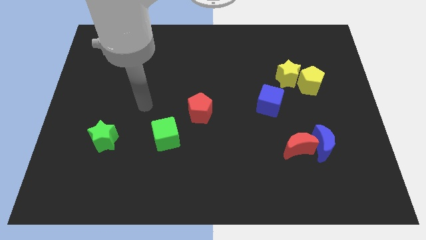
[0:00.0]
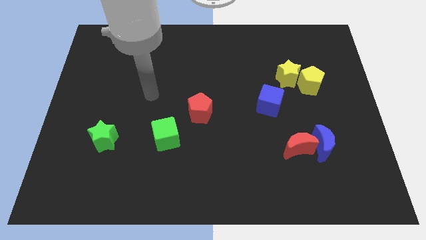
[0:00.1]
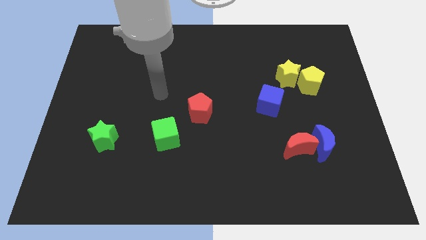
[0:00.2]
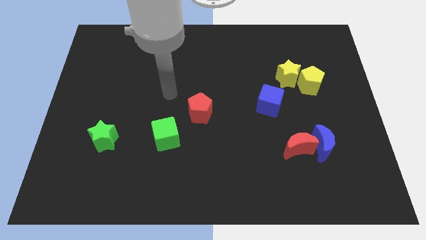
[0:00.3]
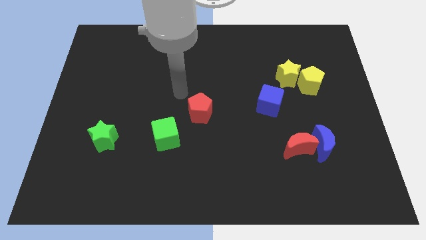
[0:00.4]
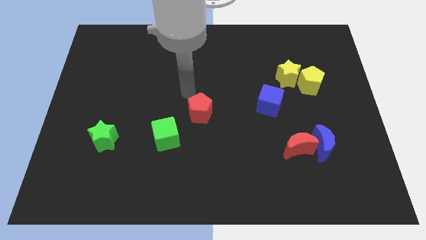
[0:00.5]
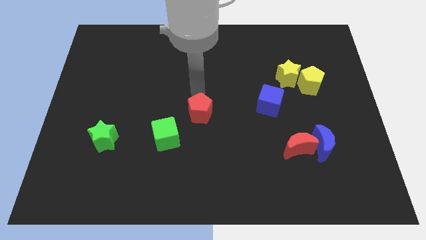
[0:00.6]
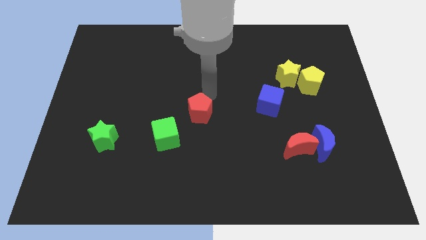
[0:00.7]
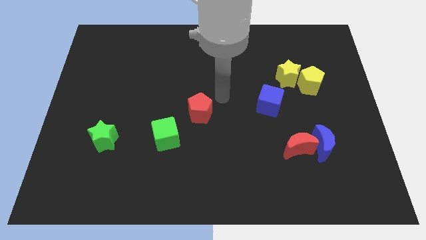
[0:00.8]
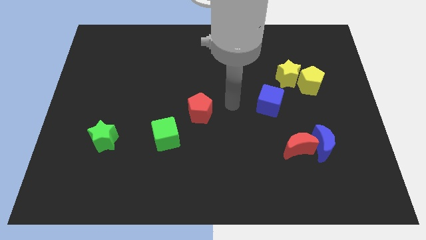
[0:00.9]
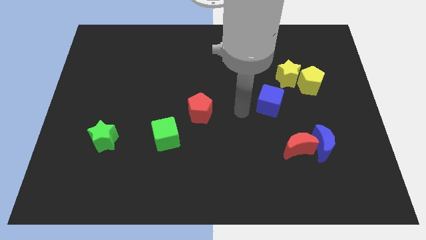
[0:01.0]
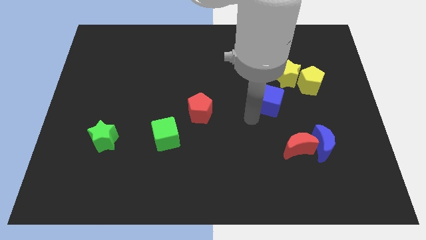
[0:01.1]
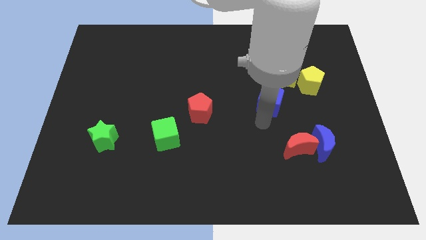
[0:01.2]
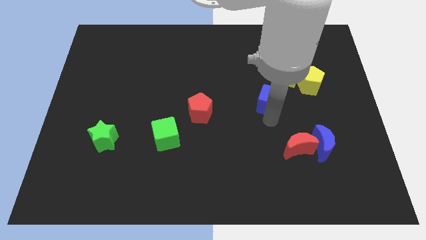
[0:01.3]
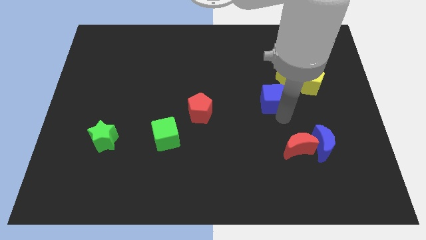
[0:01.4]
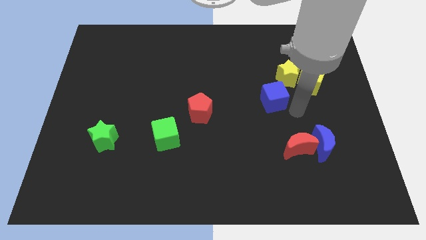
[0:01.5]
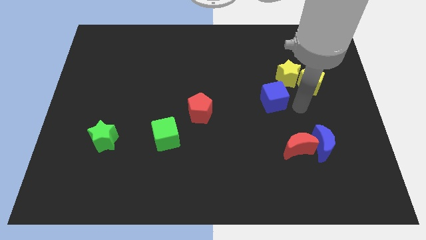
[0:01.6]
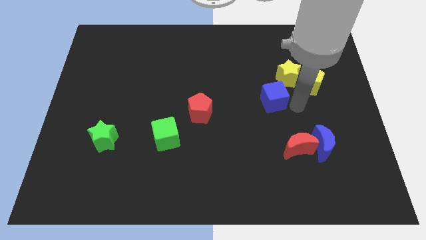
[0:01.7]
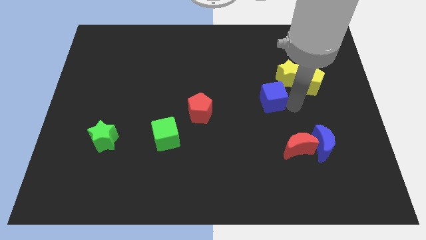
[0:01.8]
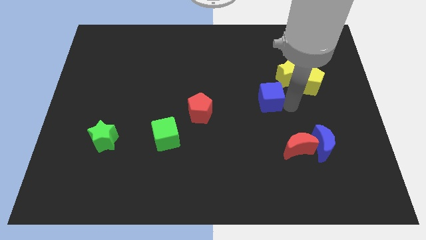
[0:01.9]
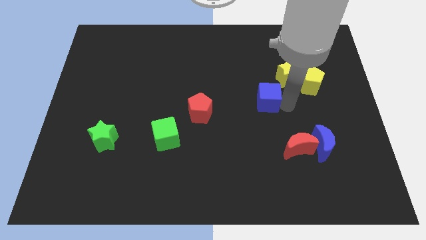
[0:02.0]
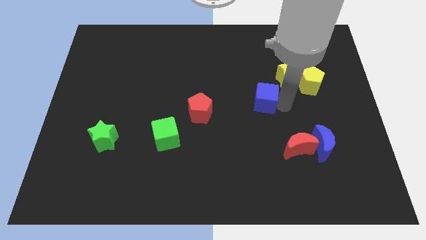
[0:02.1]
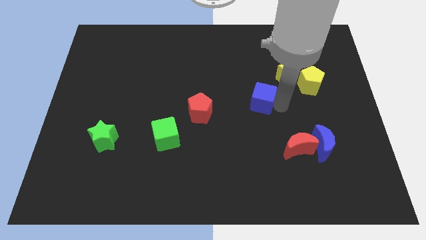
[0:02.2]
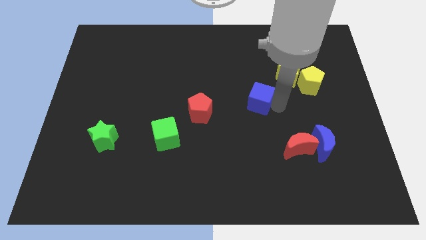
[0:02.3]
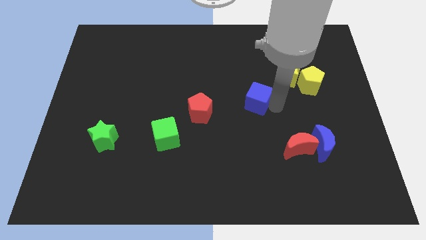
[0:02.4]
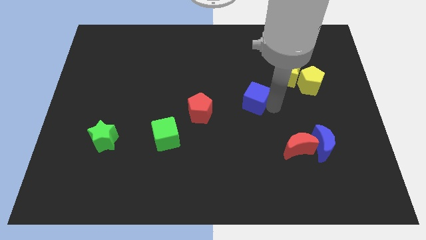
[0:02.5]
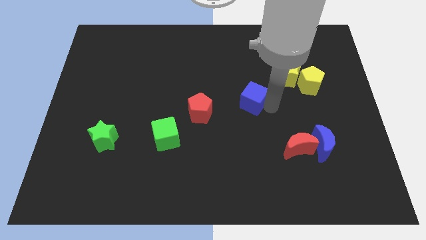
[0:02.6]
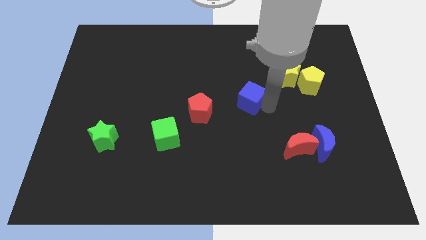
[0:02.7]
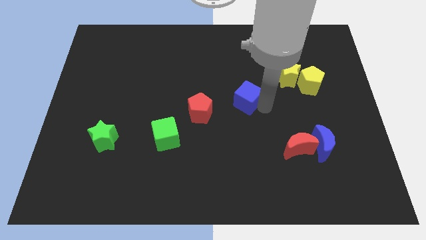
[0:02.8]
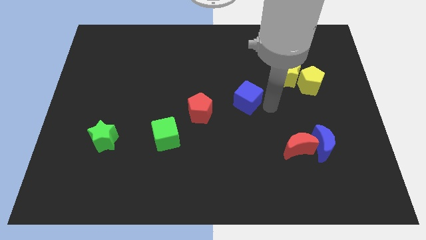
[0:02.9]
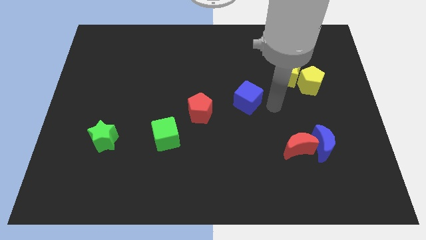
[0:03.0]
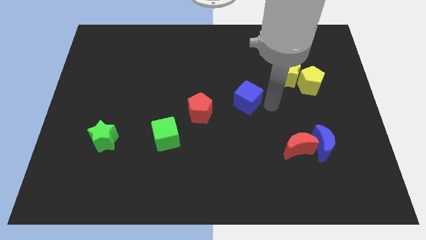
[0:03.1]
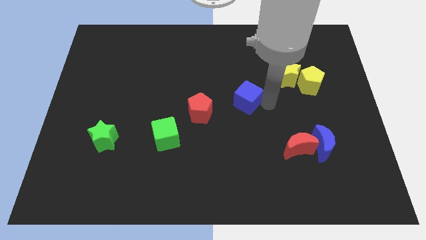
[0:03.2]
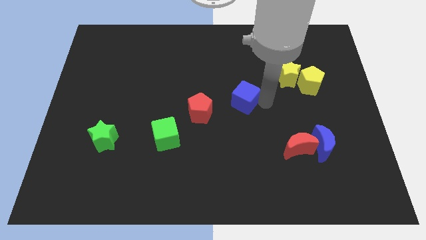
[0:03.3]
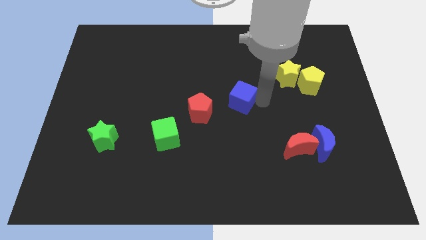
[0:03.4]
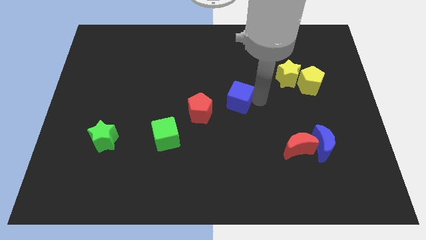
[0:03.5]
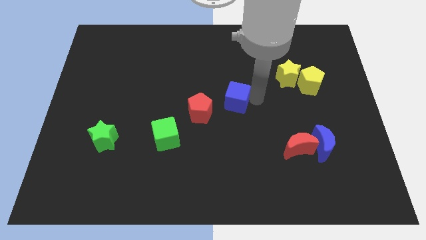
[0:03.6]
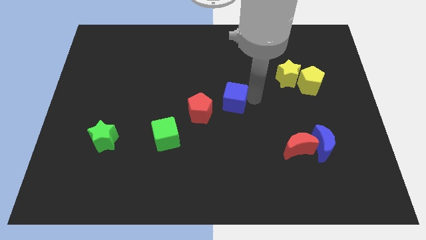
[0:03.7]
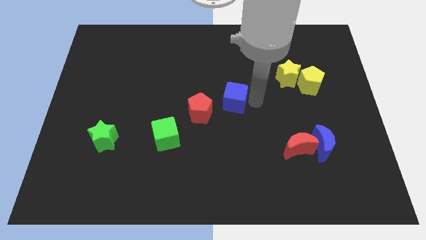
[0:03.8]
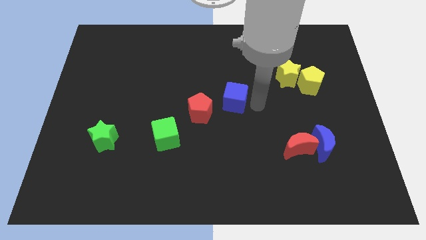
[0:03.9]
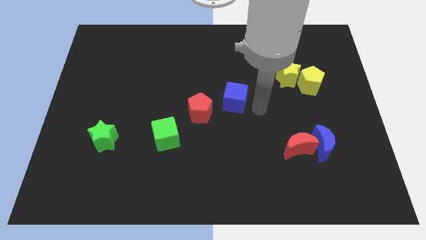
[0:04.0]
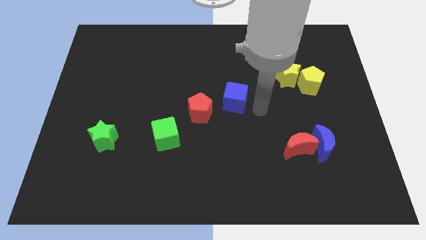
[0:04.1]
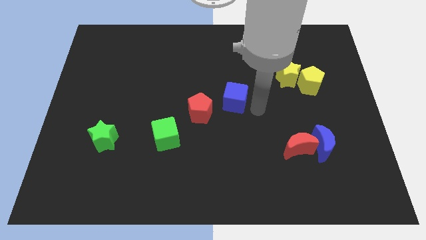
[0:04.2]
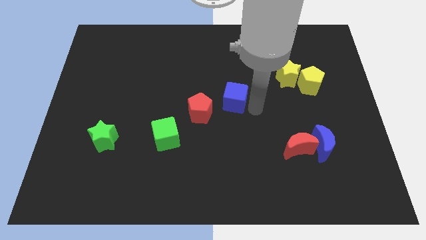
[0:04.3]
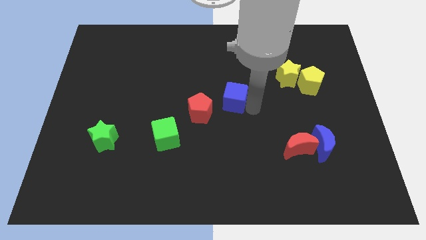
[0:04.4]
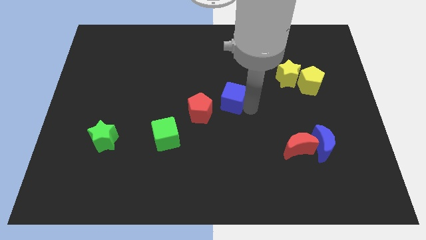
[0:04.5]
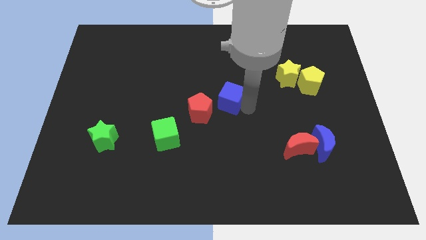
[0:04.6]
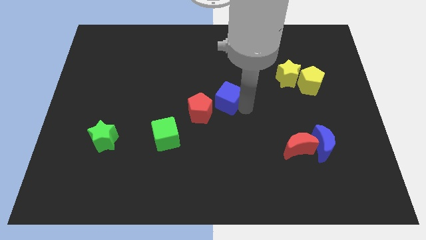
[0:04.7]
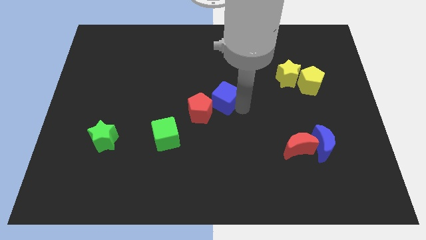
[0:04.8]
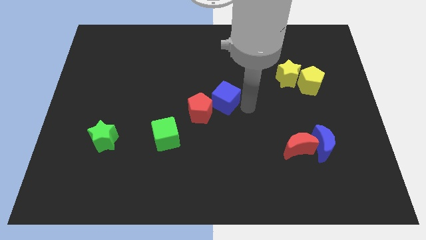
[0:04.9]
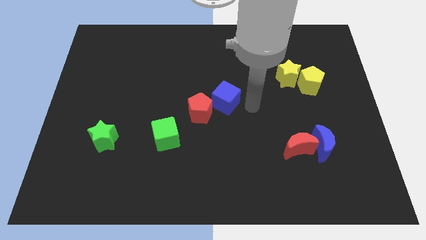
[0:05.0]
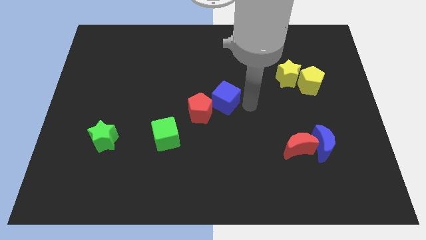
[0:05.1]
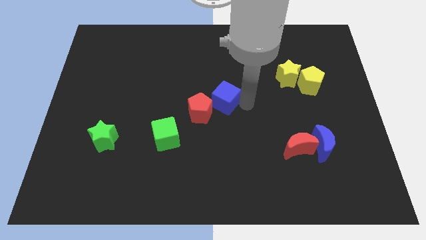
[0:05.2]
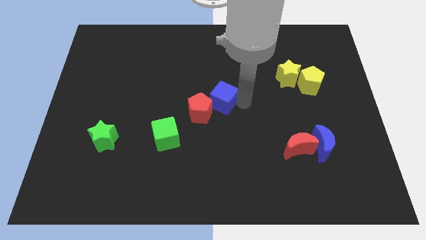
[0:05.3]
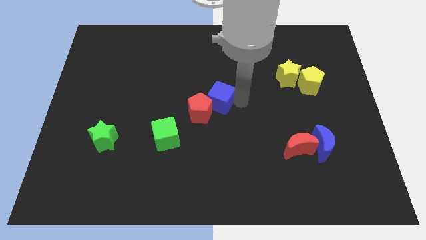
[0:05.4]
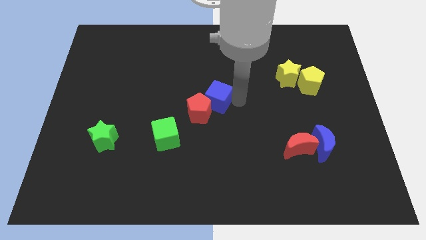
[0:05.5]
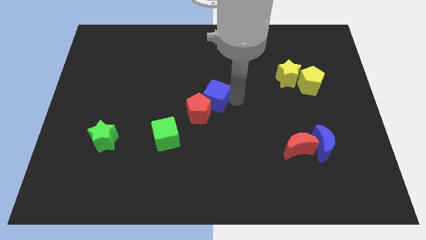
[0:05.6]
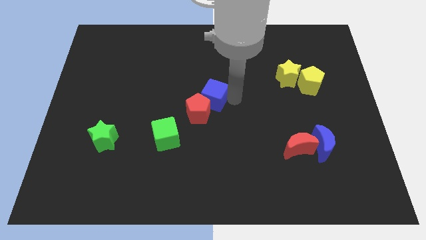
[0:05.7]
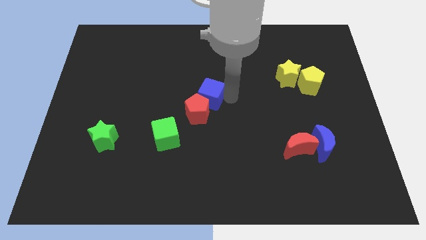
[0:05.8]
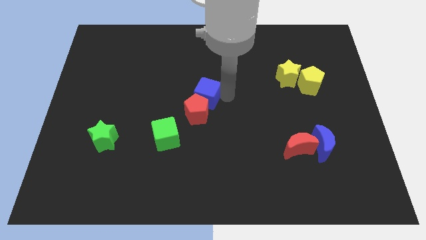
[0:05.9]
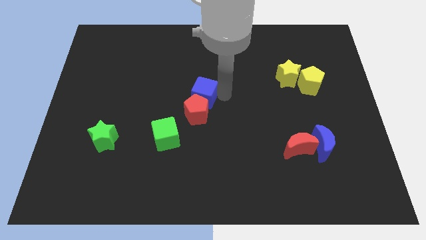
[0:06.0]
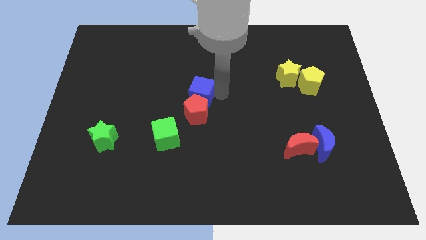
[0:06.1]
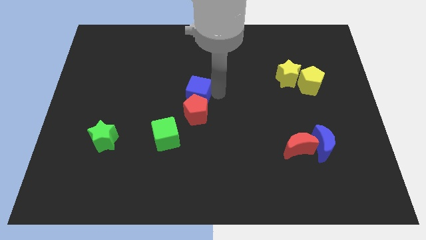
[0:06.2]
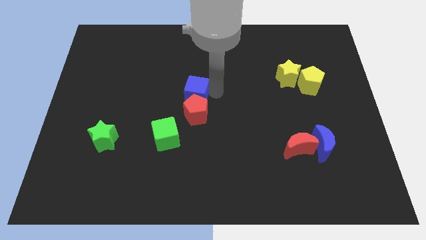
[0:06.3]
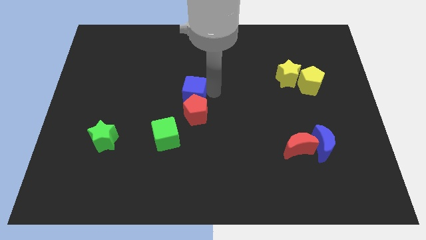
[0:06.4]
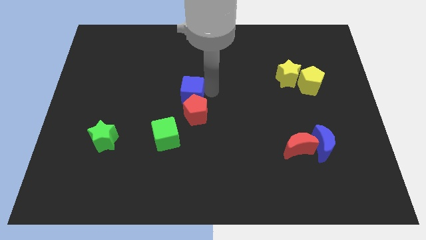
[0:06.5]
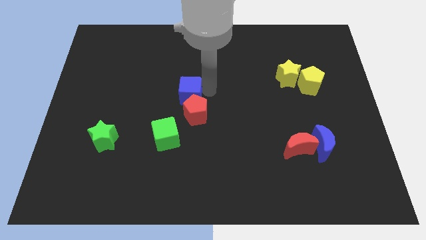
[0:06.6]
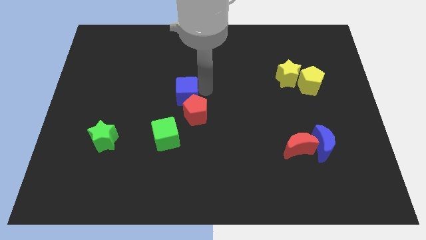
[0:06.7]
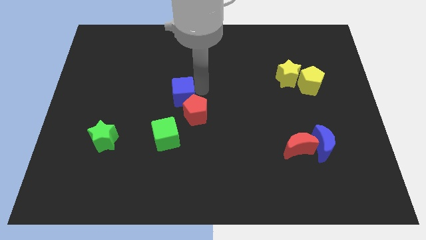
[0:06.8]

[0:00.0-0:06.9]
slide the blue cube left

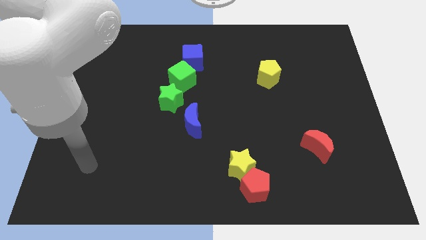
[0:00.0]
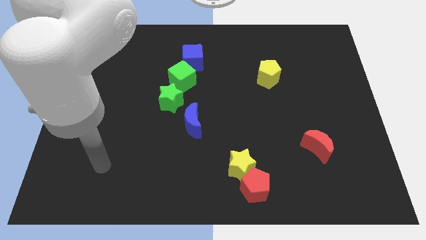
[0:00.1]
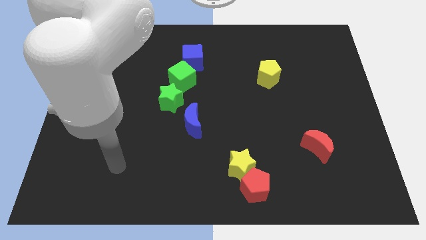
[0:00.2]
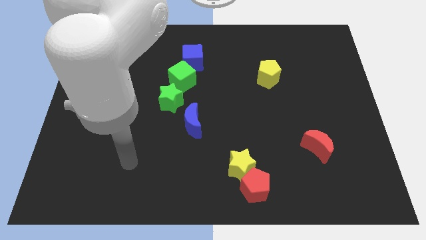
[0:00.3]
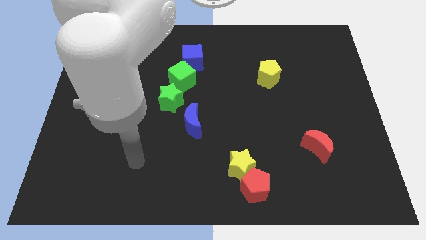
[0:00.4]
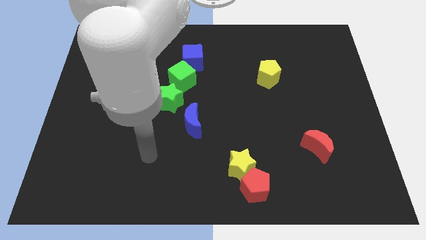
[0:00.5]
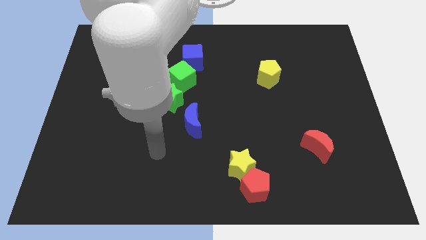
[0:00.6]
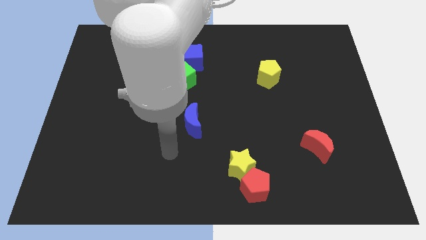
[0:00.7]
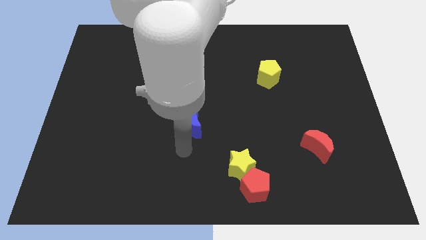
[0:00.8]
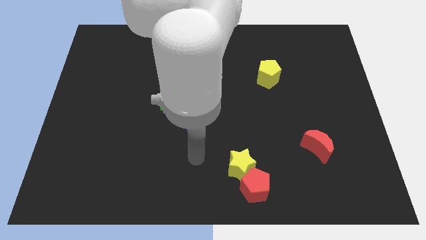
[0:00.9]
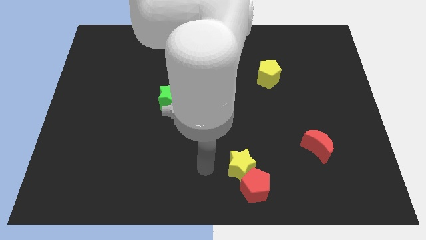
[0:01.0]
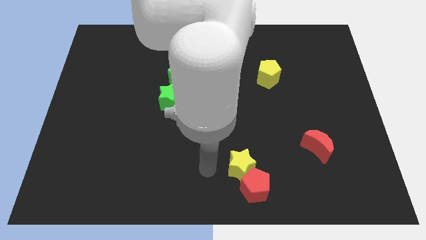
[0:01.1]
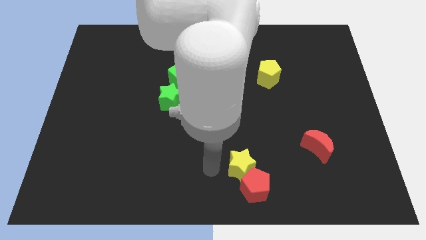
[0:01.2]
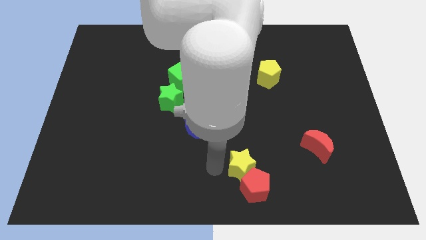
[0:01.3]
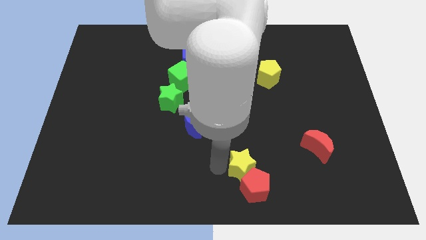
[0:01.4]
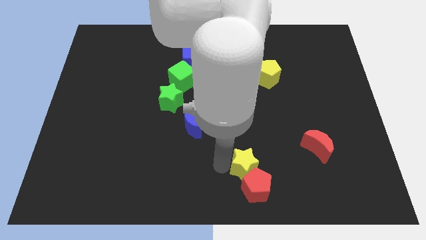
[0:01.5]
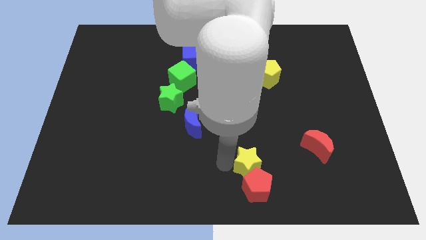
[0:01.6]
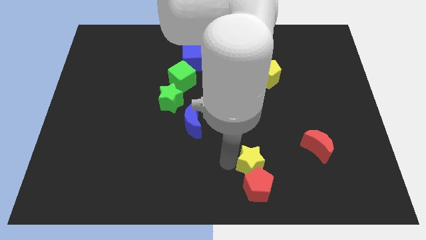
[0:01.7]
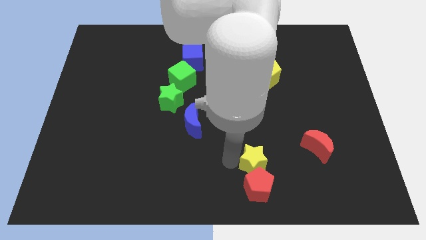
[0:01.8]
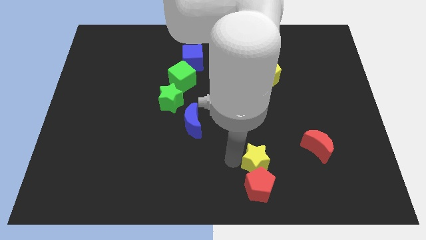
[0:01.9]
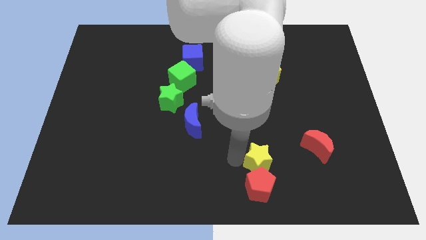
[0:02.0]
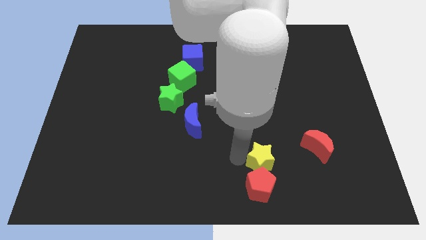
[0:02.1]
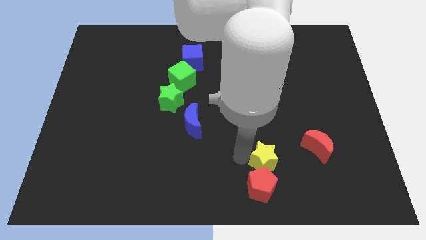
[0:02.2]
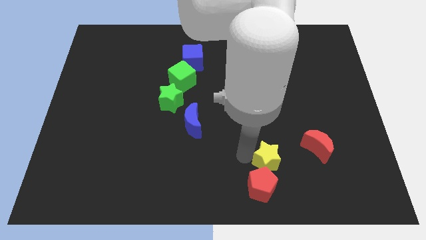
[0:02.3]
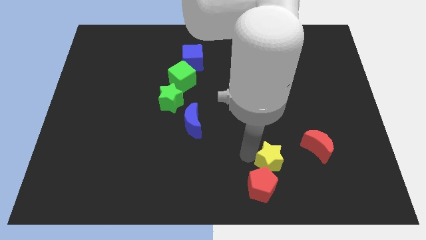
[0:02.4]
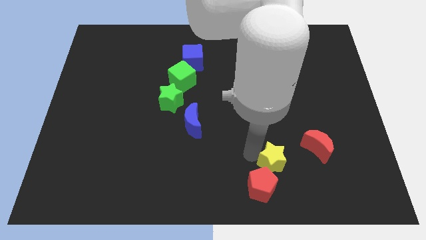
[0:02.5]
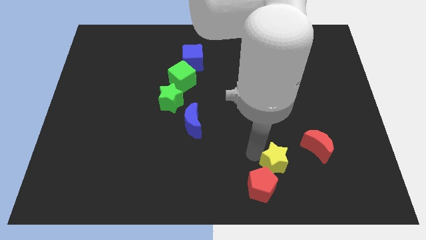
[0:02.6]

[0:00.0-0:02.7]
slide the yellow star to the right a little bit
